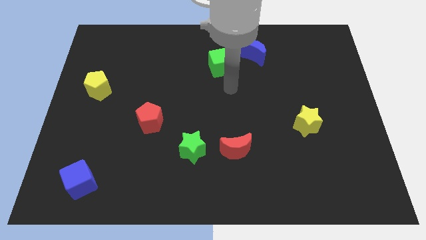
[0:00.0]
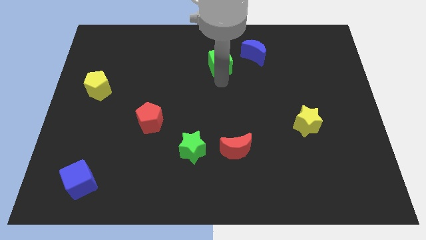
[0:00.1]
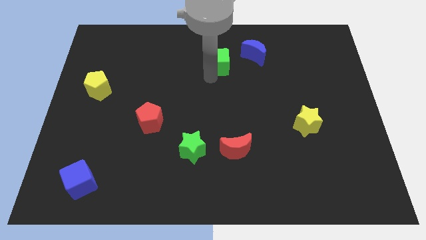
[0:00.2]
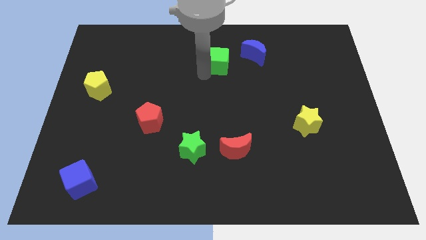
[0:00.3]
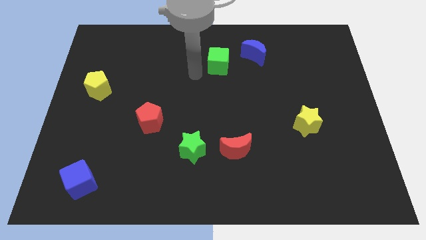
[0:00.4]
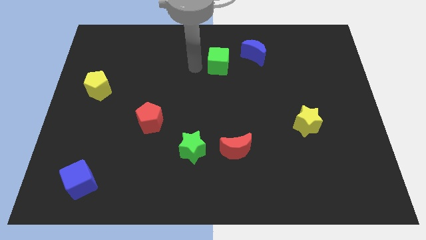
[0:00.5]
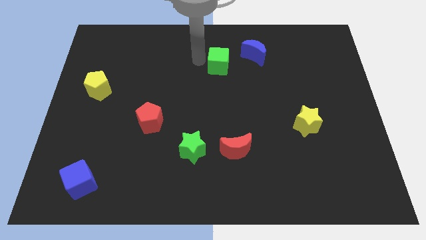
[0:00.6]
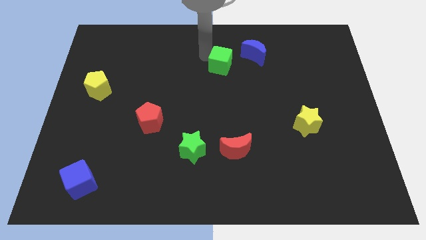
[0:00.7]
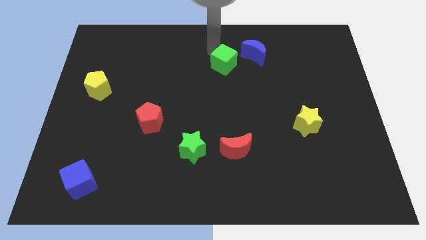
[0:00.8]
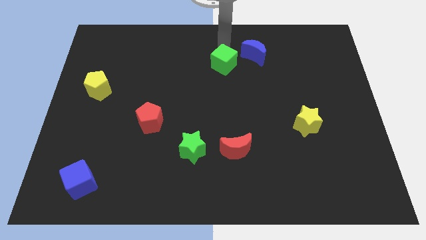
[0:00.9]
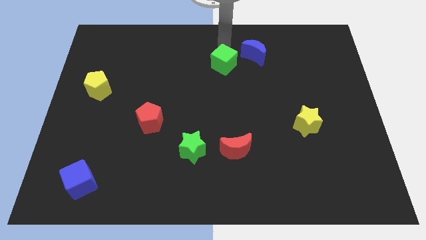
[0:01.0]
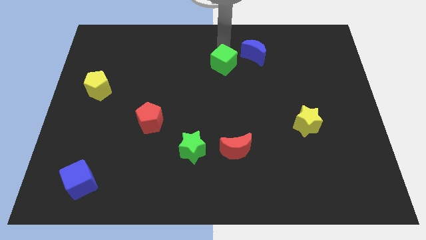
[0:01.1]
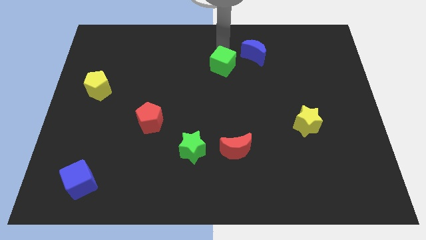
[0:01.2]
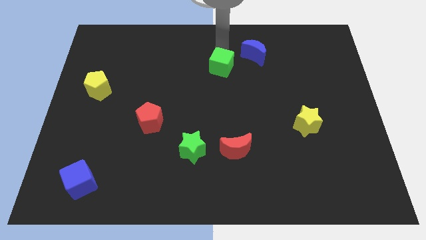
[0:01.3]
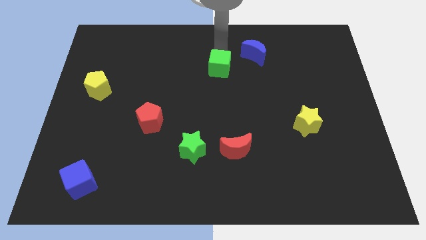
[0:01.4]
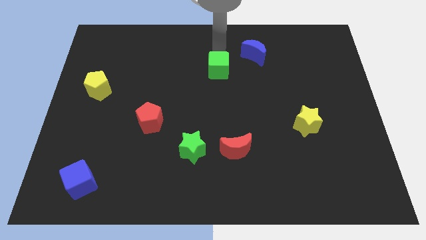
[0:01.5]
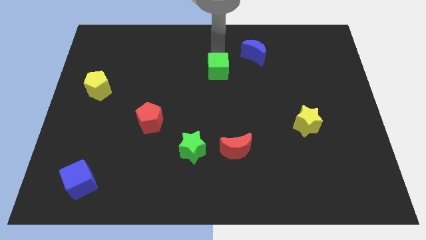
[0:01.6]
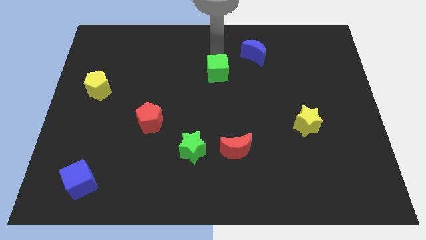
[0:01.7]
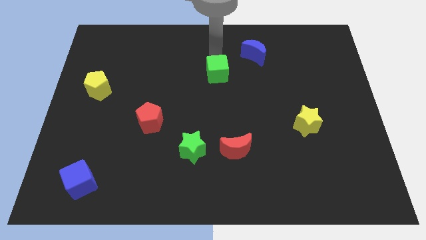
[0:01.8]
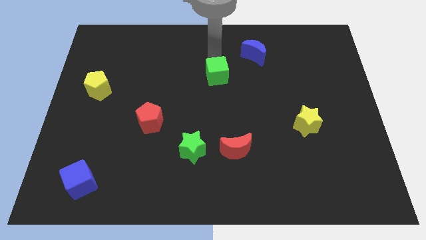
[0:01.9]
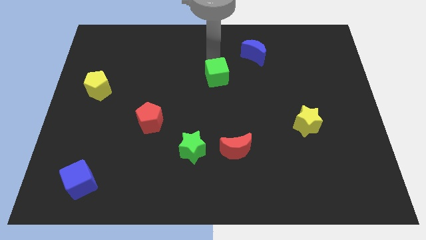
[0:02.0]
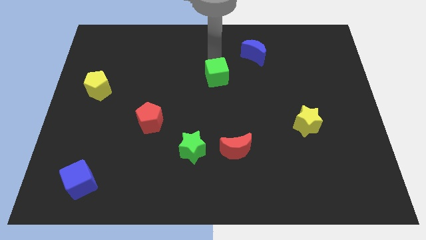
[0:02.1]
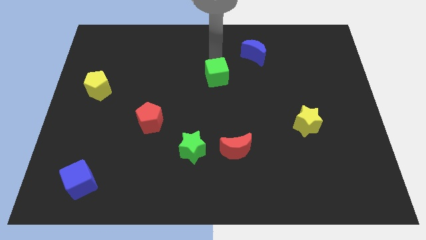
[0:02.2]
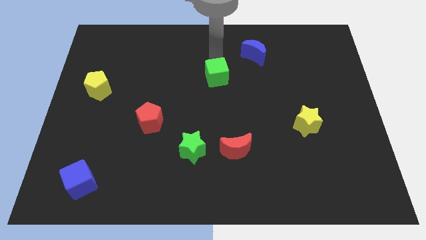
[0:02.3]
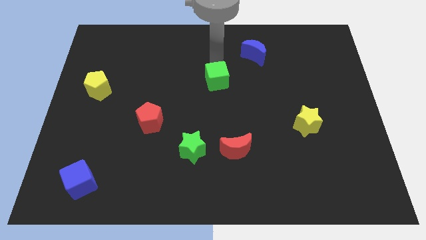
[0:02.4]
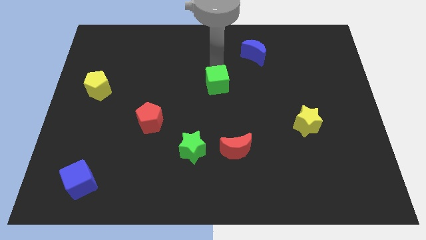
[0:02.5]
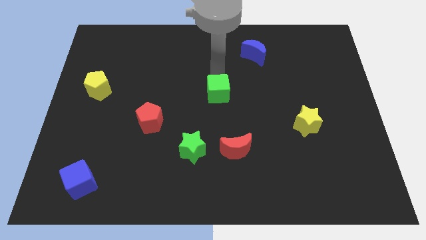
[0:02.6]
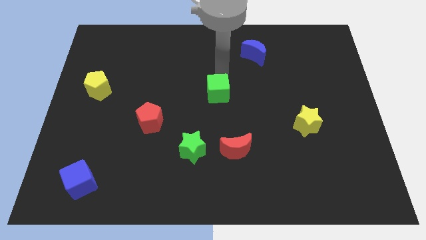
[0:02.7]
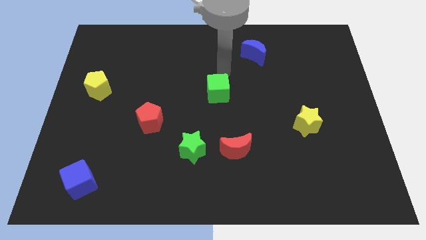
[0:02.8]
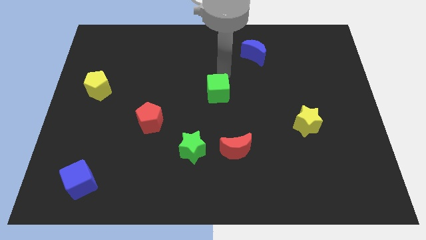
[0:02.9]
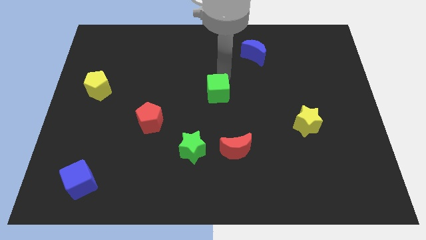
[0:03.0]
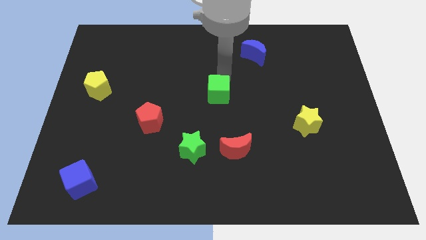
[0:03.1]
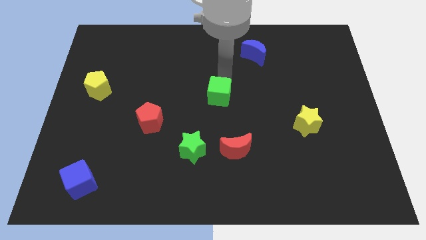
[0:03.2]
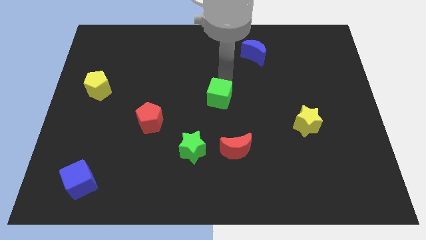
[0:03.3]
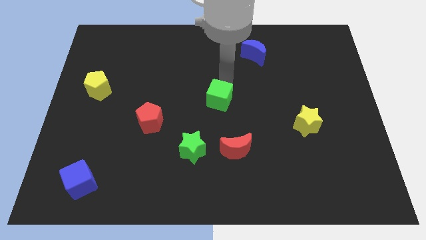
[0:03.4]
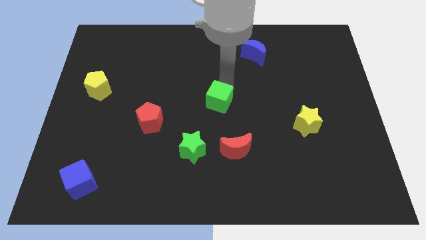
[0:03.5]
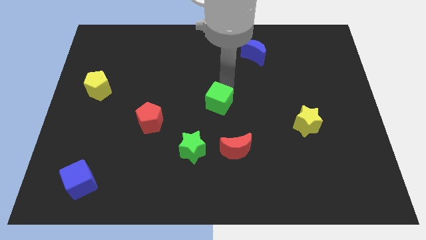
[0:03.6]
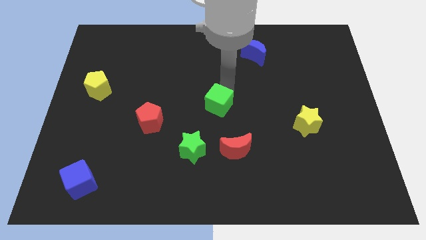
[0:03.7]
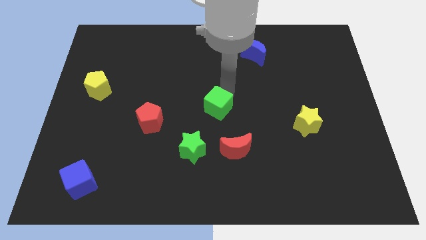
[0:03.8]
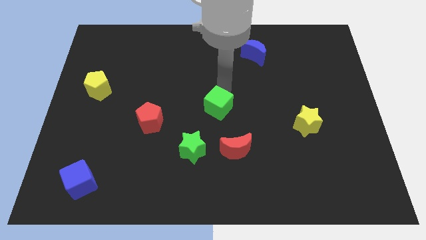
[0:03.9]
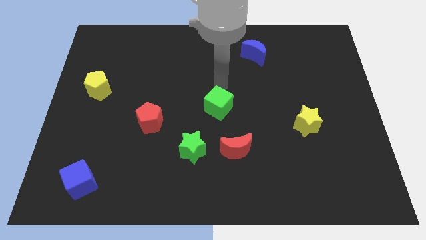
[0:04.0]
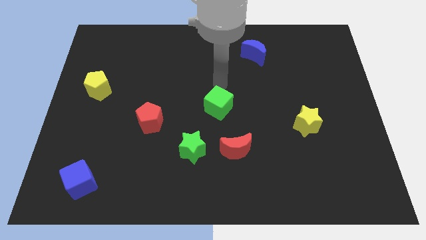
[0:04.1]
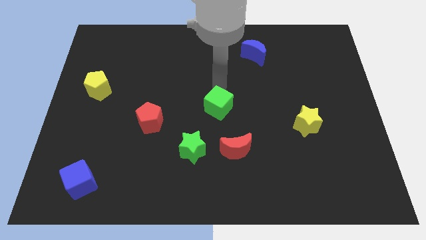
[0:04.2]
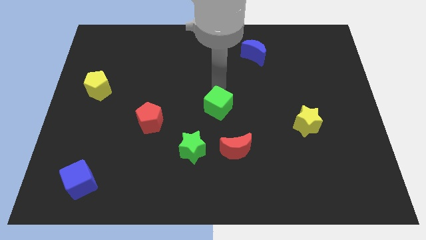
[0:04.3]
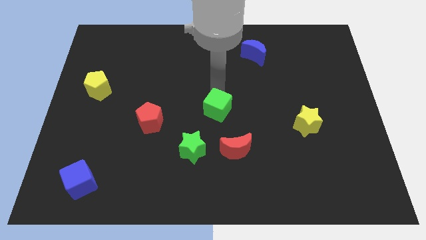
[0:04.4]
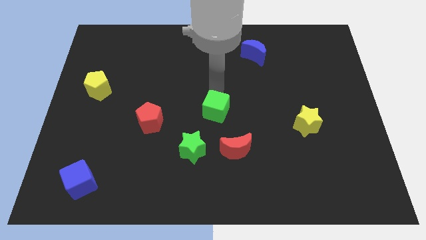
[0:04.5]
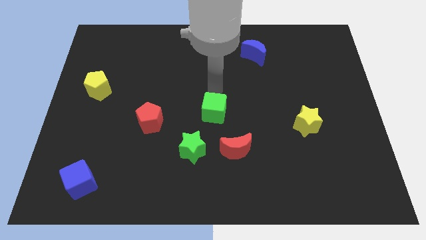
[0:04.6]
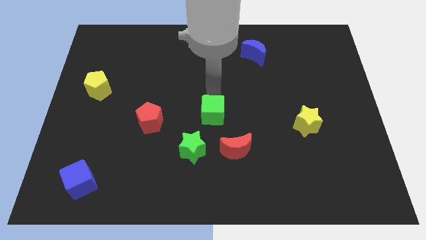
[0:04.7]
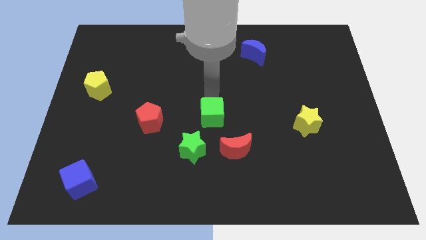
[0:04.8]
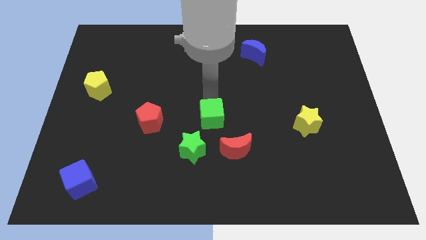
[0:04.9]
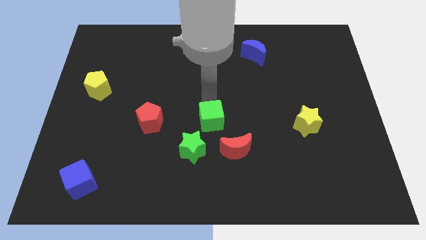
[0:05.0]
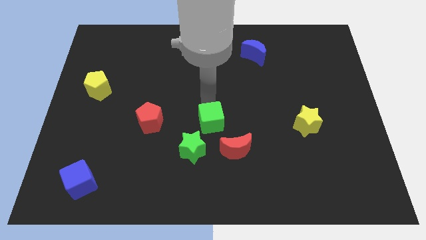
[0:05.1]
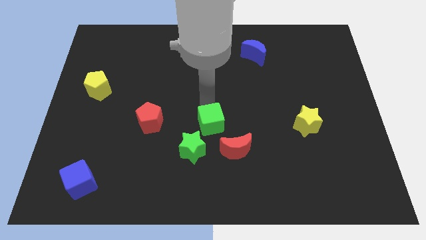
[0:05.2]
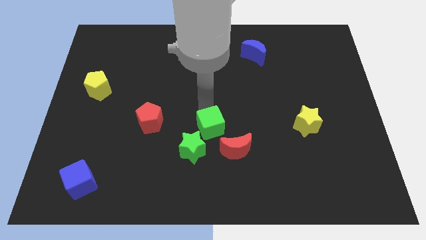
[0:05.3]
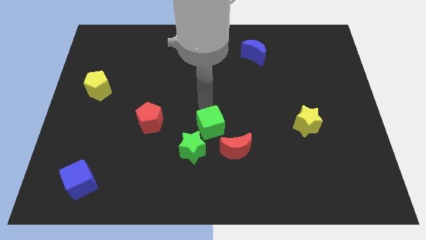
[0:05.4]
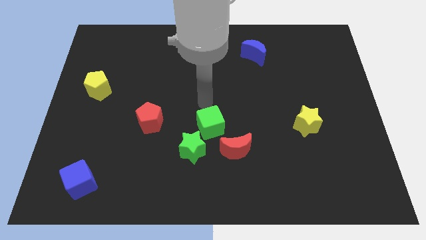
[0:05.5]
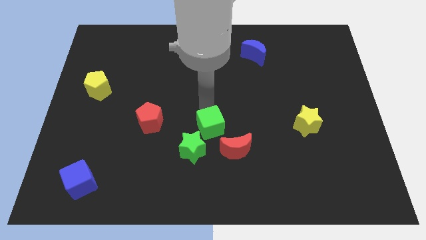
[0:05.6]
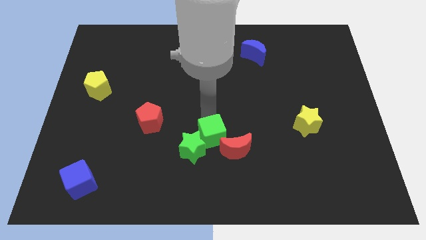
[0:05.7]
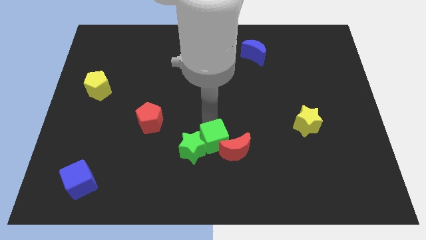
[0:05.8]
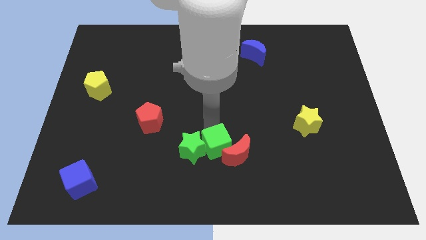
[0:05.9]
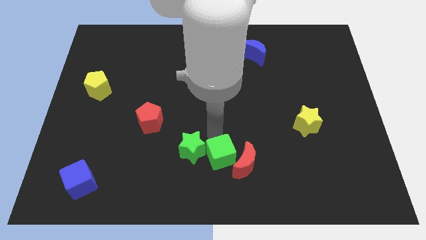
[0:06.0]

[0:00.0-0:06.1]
push the green cube to the bottom side
